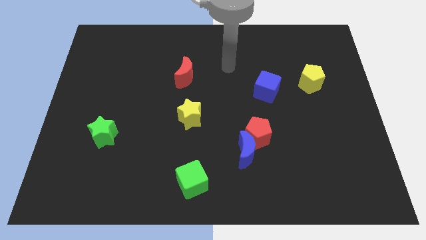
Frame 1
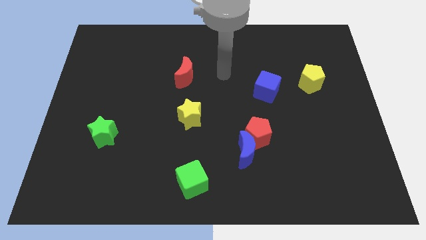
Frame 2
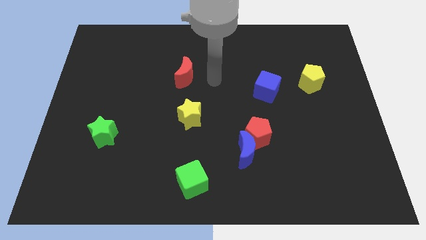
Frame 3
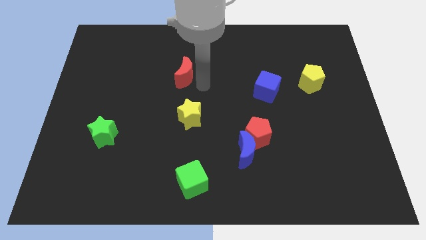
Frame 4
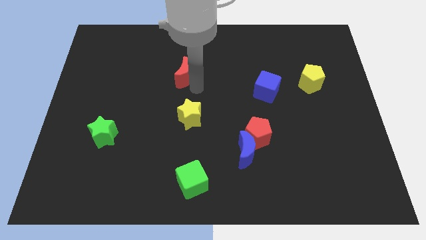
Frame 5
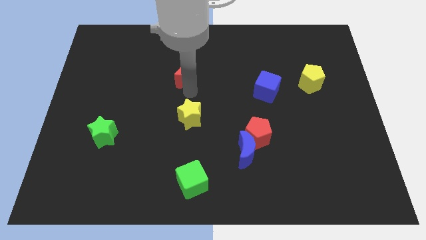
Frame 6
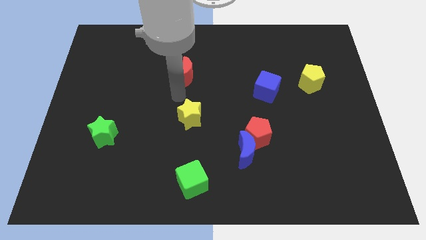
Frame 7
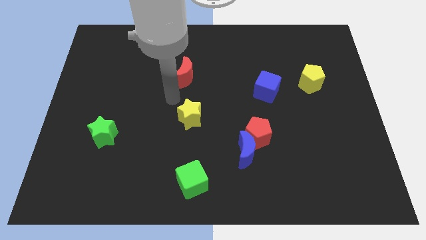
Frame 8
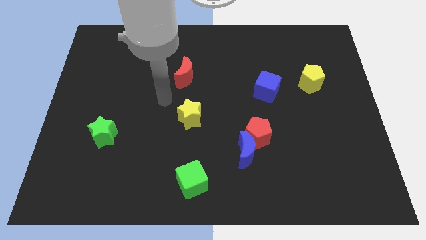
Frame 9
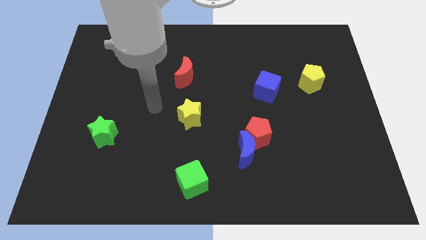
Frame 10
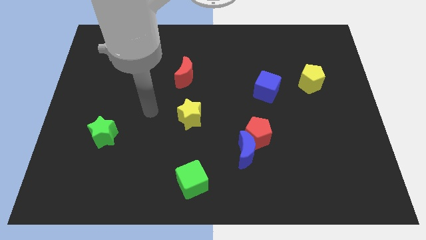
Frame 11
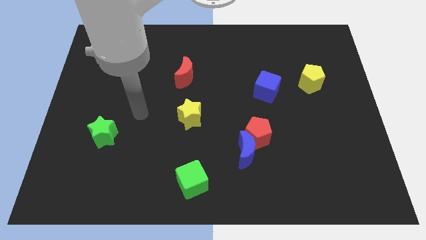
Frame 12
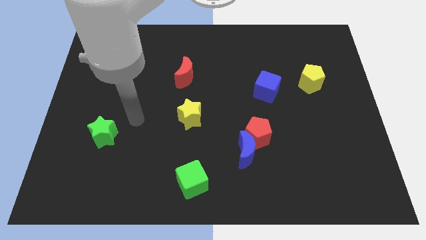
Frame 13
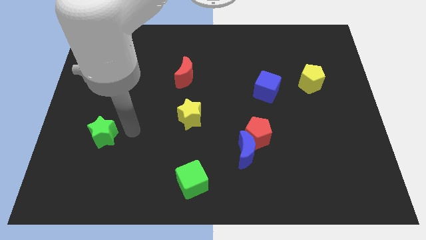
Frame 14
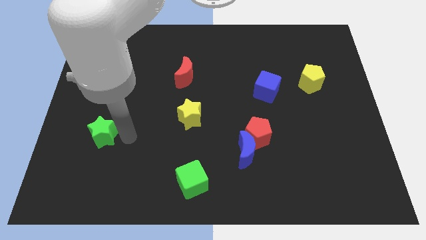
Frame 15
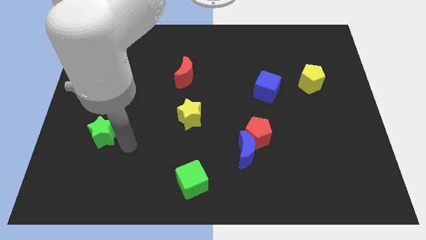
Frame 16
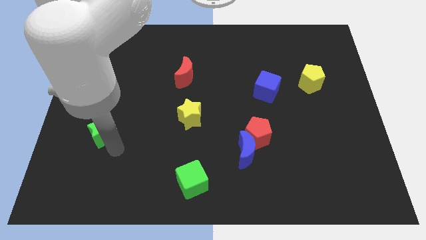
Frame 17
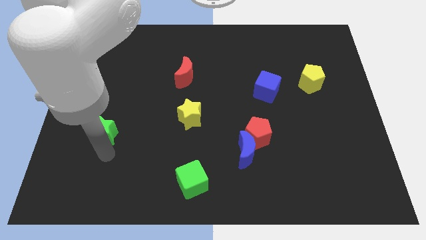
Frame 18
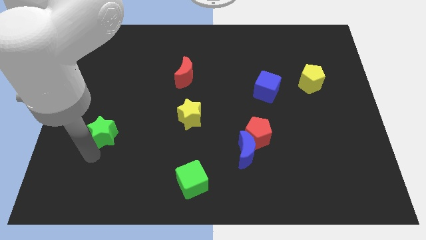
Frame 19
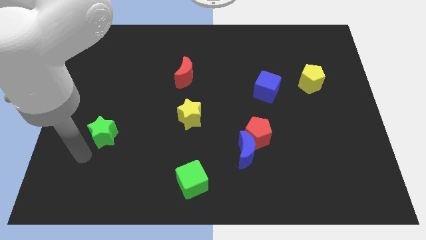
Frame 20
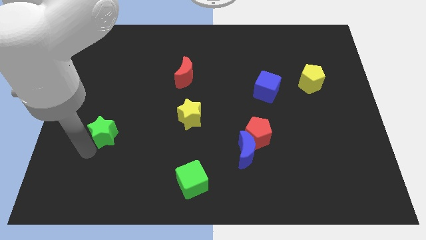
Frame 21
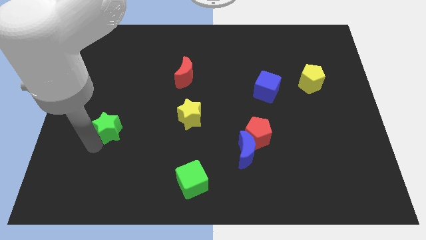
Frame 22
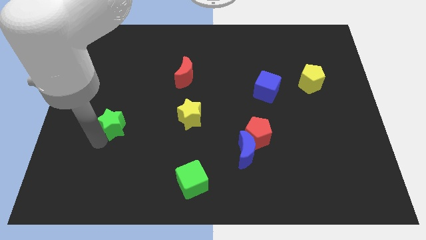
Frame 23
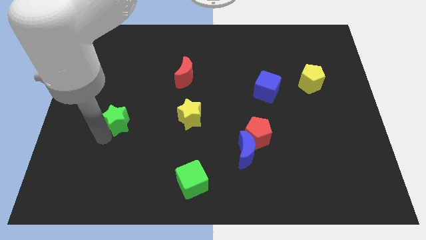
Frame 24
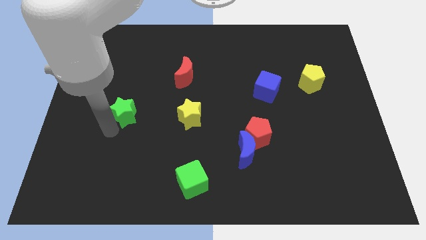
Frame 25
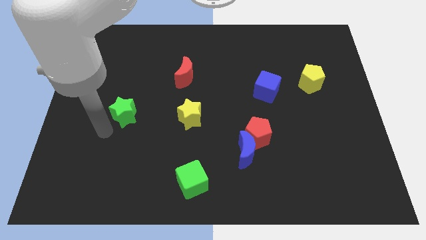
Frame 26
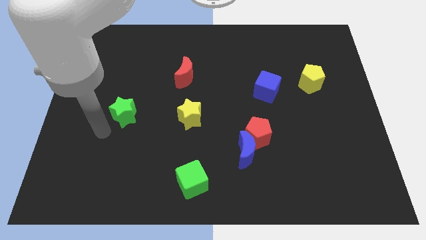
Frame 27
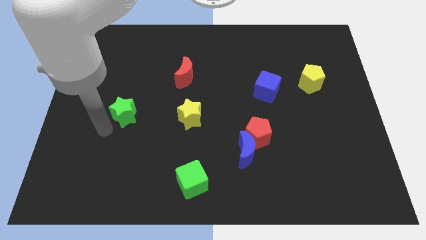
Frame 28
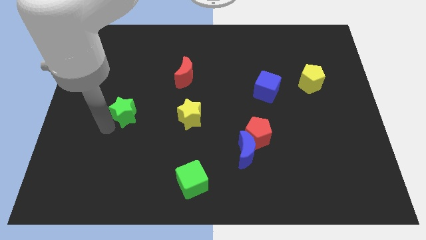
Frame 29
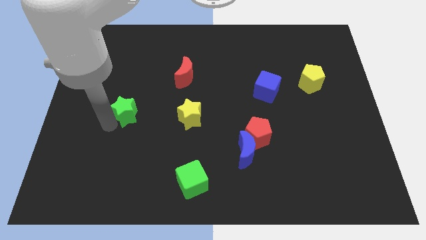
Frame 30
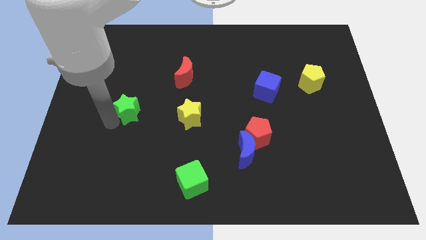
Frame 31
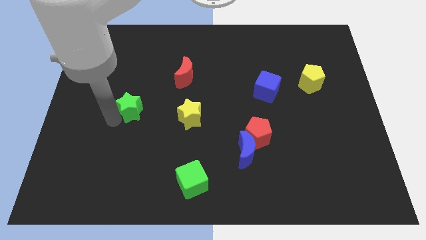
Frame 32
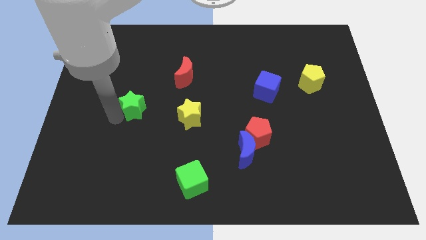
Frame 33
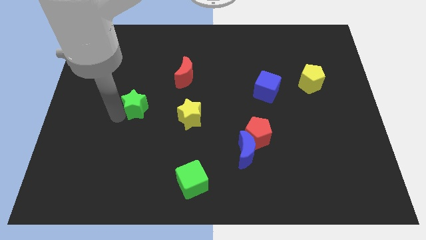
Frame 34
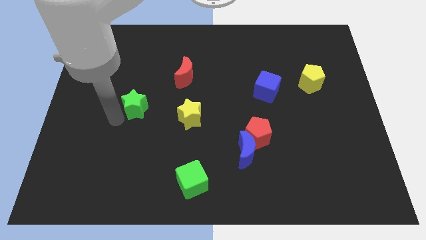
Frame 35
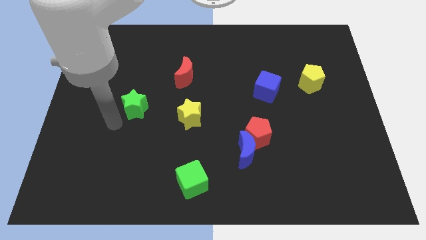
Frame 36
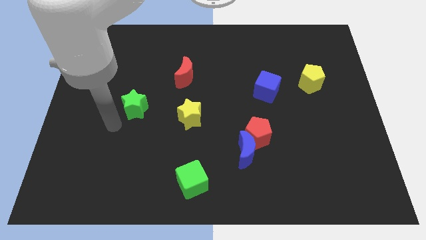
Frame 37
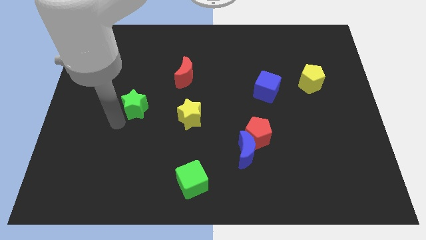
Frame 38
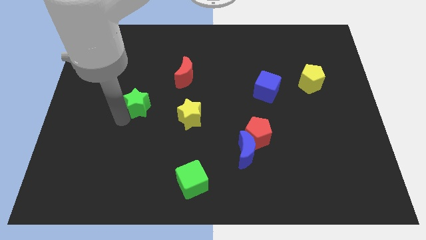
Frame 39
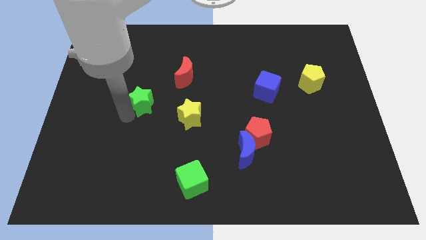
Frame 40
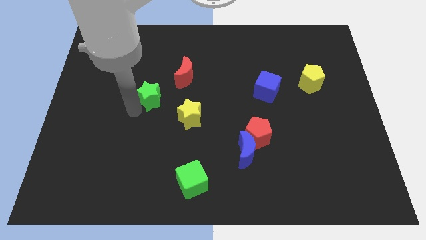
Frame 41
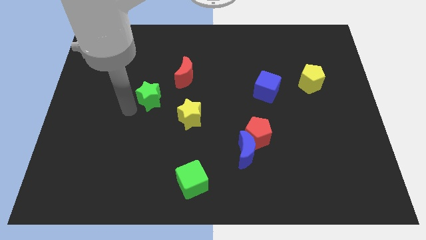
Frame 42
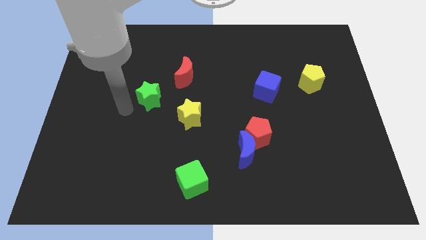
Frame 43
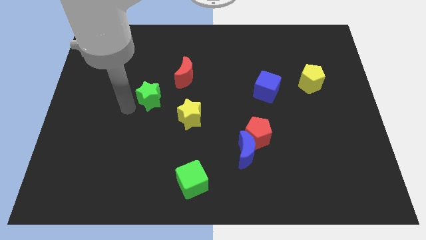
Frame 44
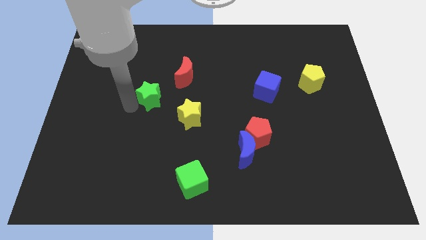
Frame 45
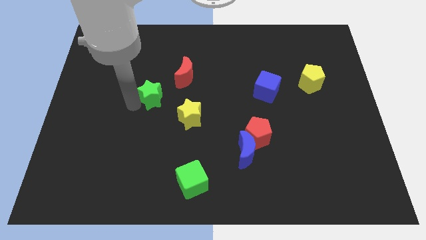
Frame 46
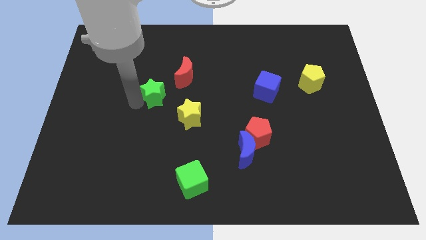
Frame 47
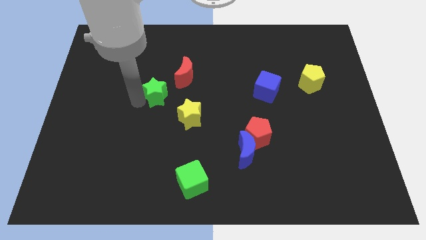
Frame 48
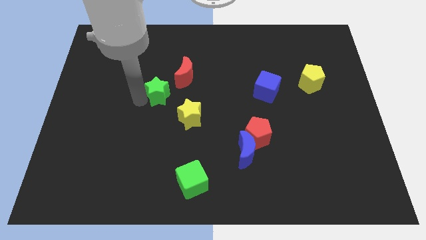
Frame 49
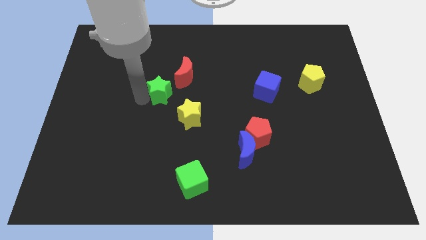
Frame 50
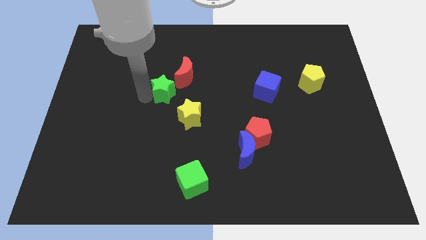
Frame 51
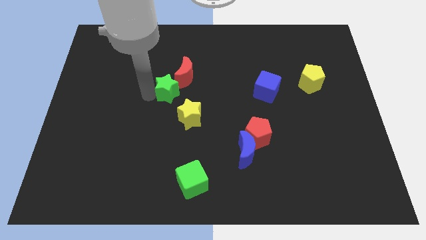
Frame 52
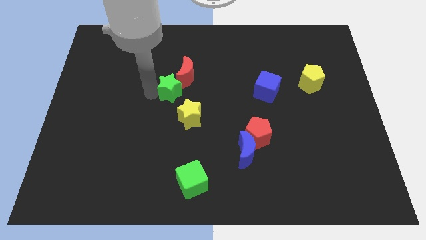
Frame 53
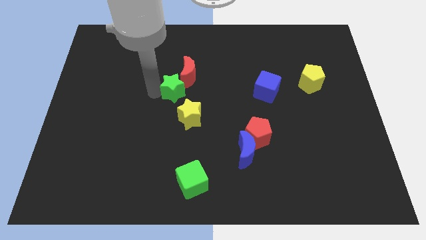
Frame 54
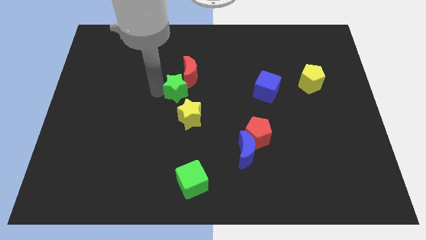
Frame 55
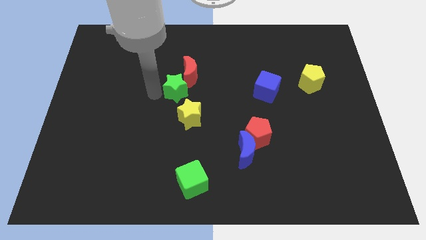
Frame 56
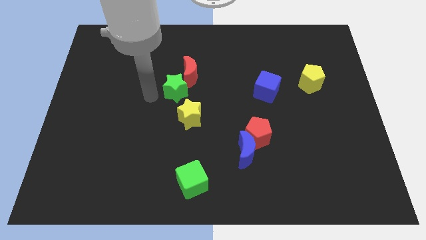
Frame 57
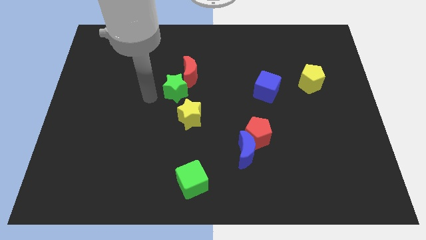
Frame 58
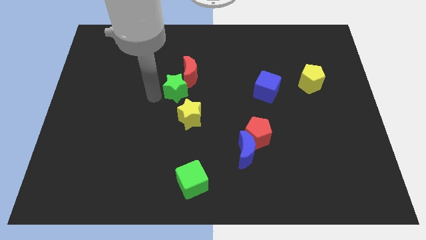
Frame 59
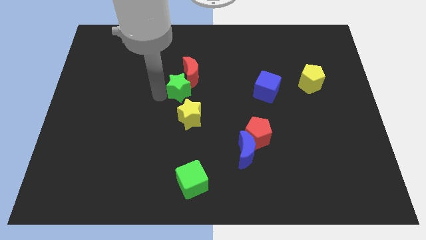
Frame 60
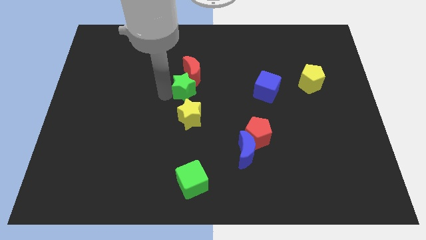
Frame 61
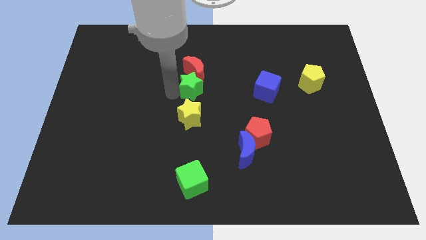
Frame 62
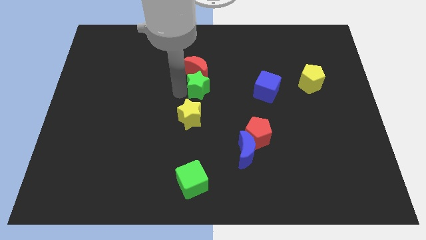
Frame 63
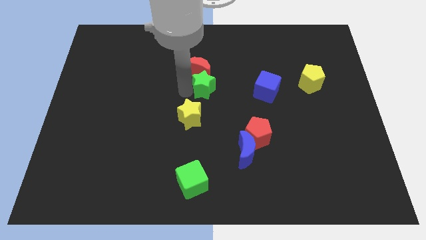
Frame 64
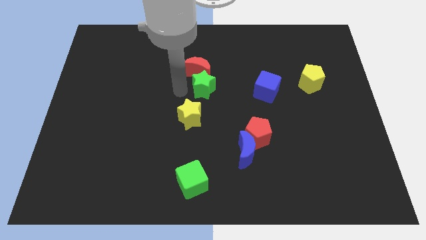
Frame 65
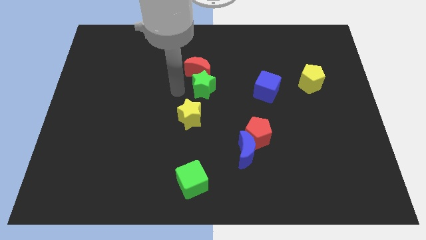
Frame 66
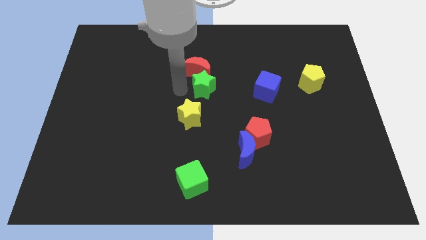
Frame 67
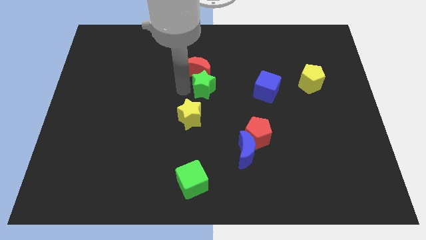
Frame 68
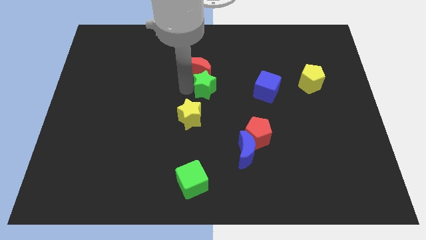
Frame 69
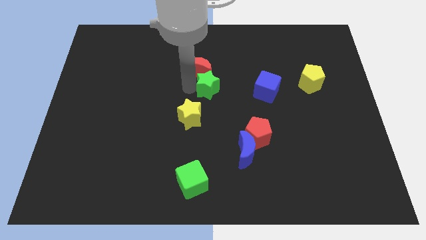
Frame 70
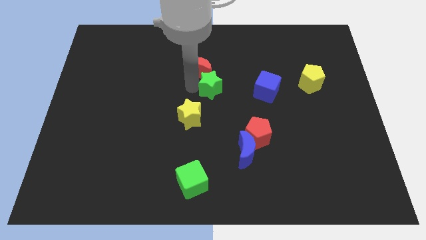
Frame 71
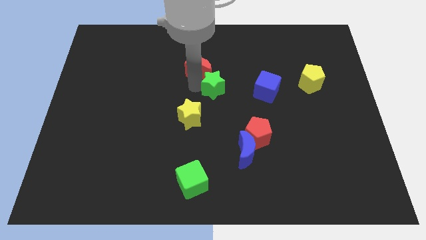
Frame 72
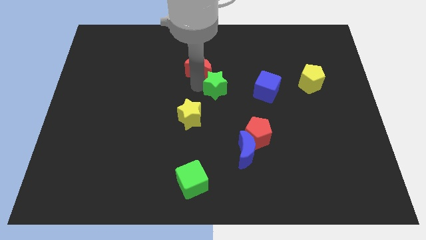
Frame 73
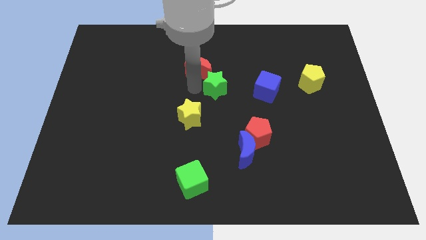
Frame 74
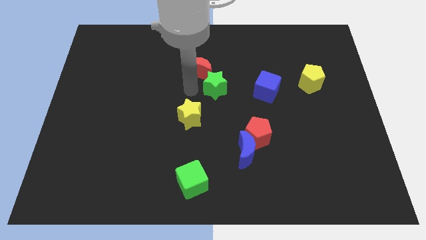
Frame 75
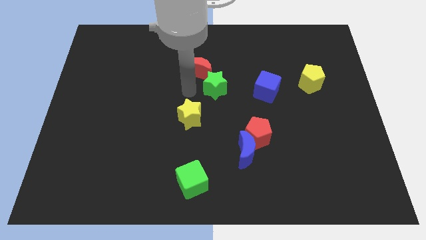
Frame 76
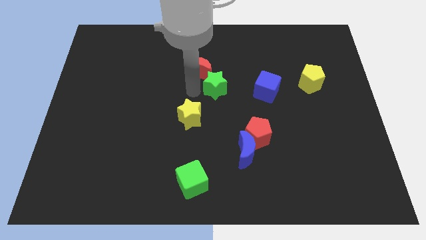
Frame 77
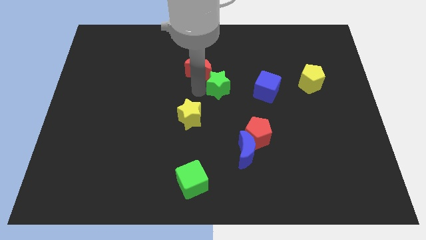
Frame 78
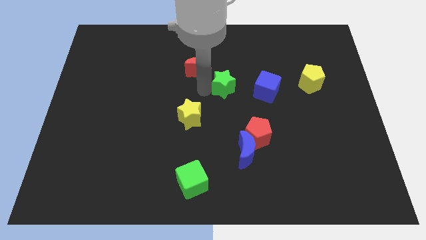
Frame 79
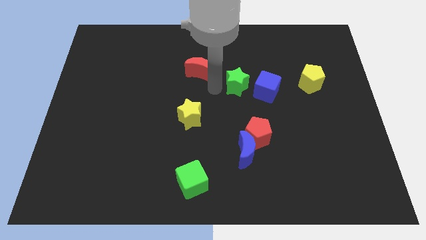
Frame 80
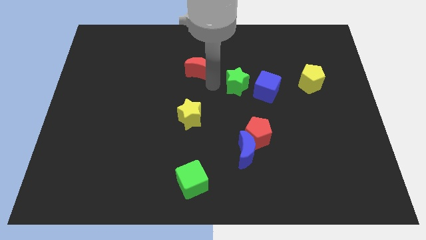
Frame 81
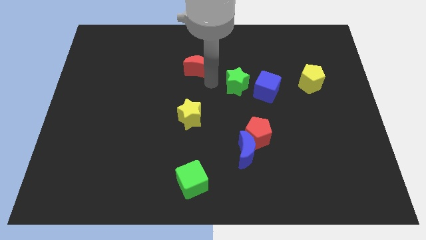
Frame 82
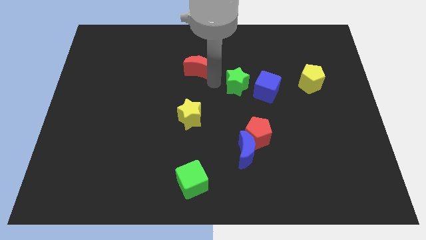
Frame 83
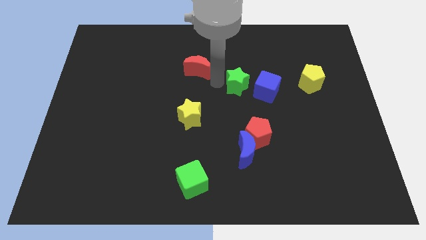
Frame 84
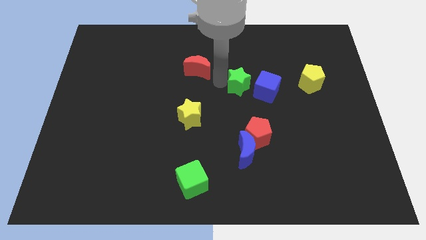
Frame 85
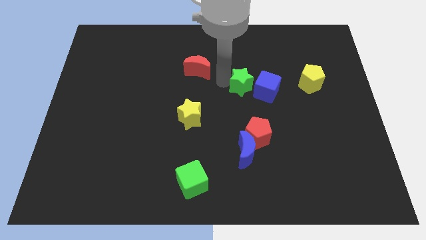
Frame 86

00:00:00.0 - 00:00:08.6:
slide the green star next to the blue cube
